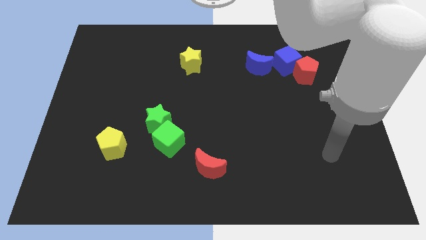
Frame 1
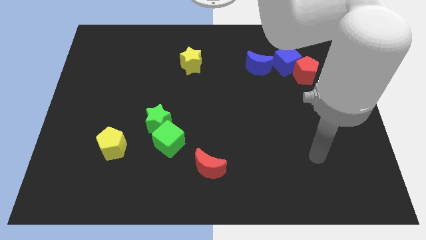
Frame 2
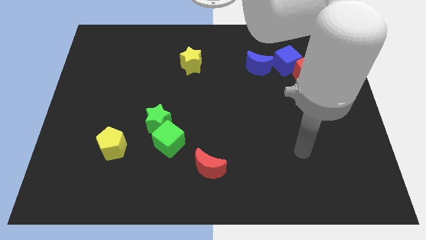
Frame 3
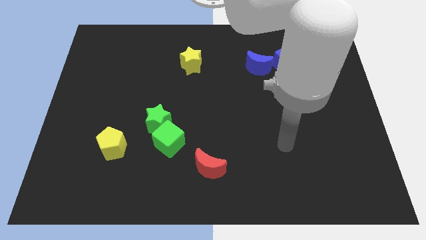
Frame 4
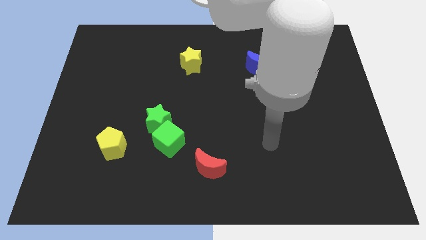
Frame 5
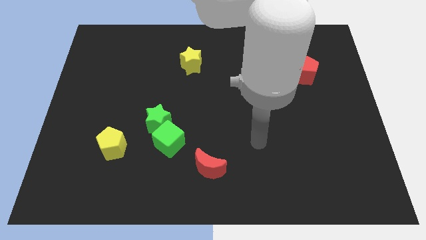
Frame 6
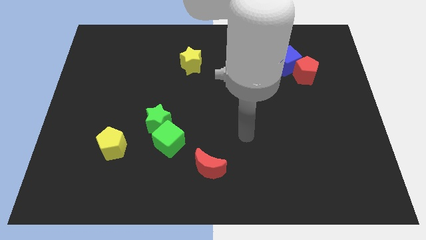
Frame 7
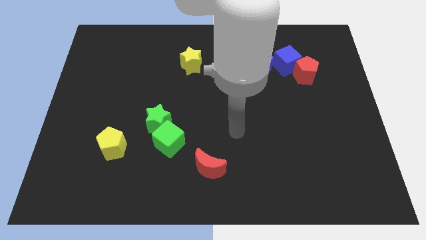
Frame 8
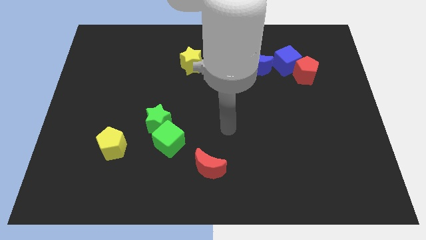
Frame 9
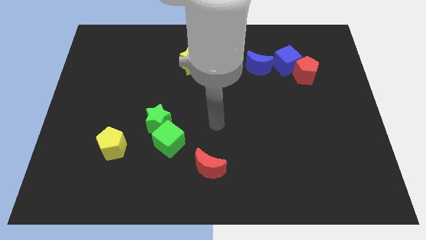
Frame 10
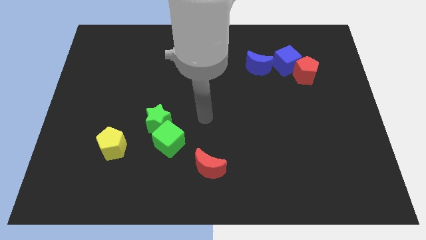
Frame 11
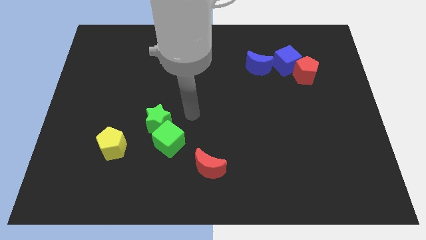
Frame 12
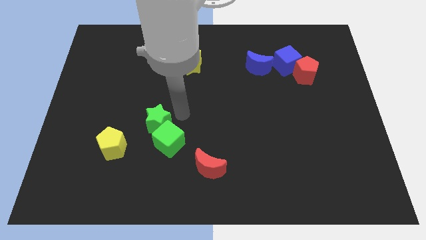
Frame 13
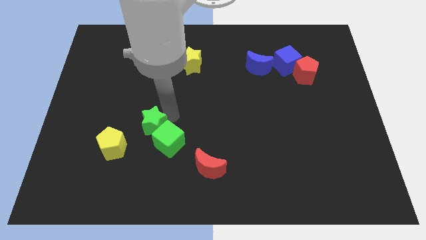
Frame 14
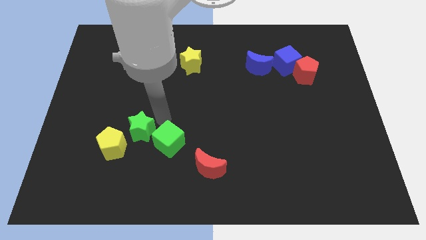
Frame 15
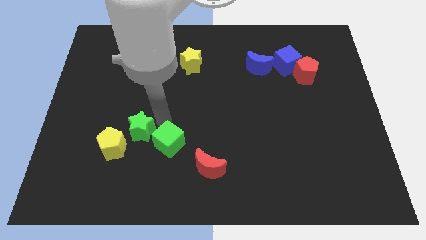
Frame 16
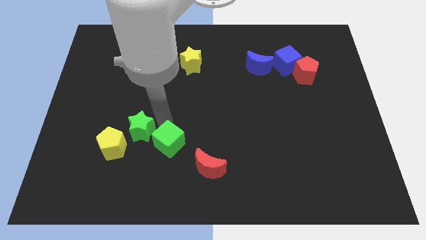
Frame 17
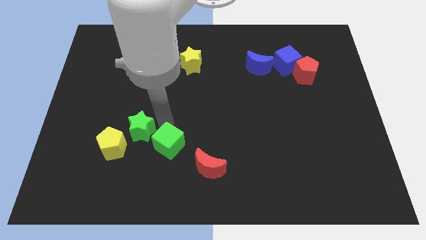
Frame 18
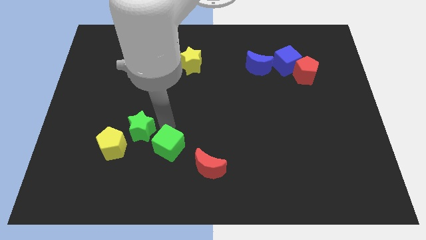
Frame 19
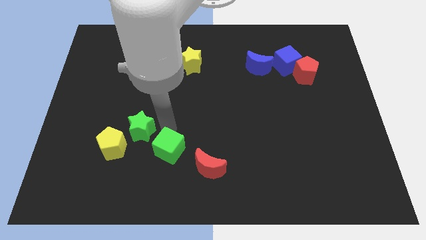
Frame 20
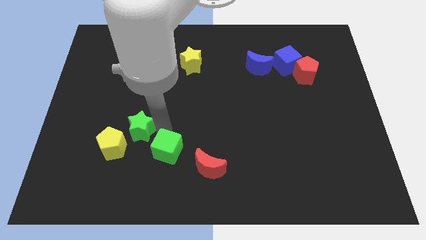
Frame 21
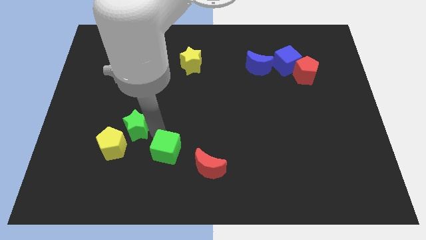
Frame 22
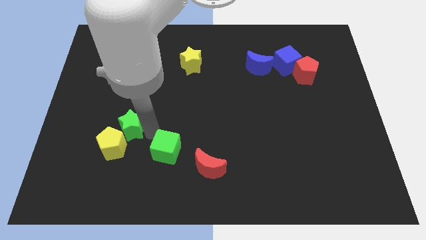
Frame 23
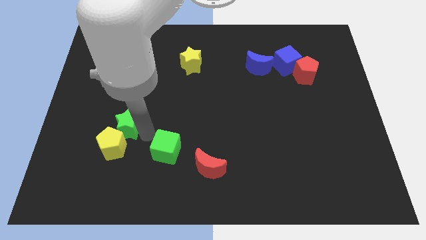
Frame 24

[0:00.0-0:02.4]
pull the green cube apart from the green star

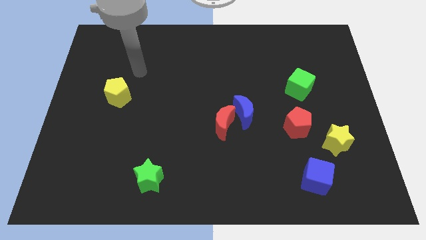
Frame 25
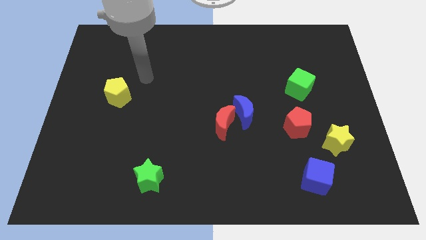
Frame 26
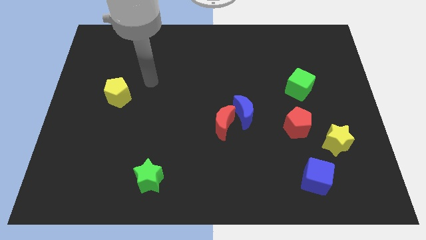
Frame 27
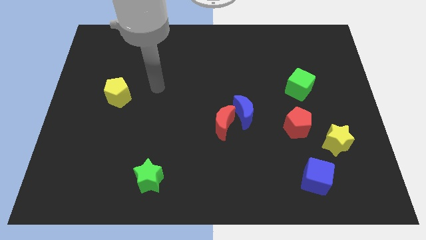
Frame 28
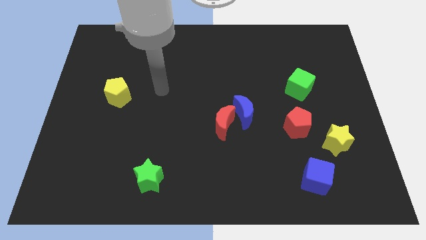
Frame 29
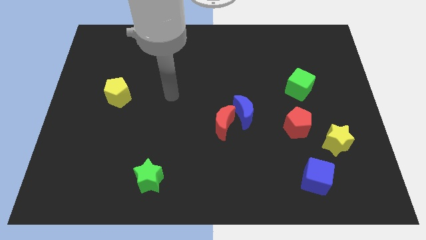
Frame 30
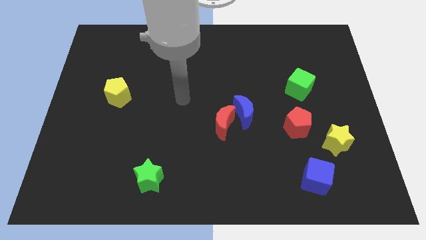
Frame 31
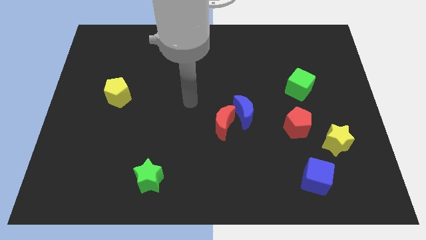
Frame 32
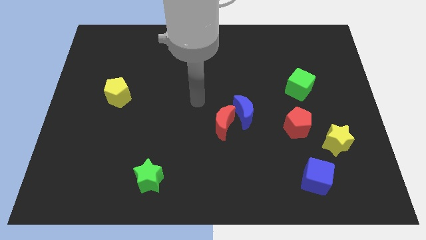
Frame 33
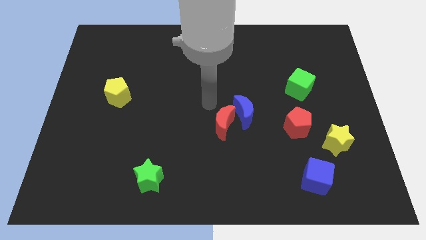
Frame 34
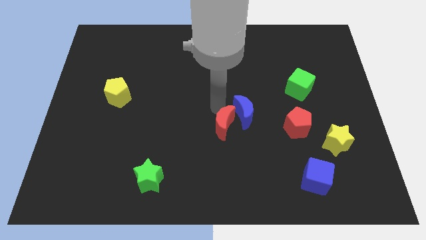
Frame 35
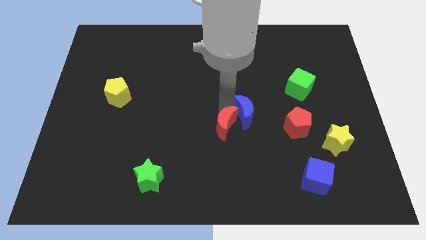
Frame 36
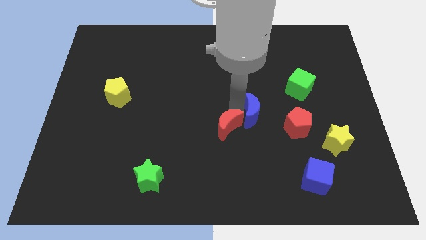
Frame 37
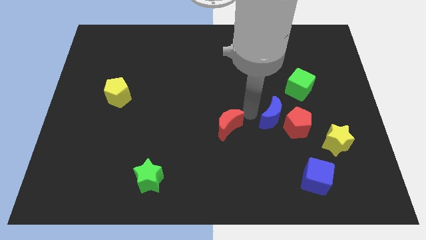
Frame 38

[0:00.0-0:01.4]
pull the red moon apart from the blue moon

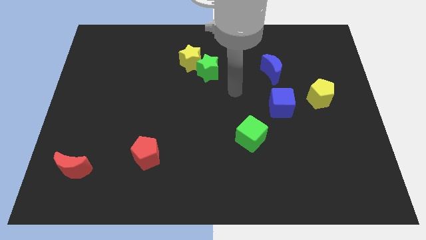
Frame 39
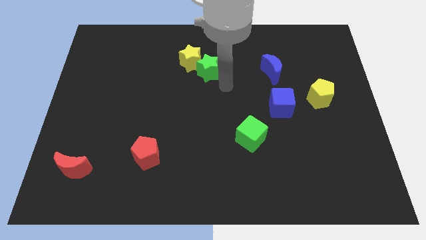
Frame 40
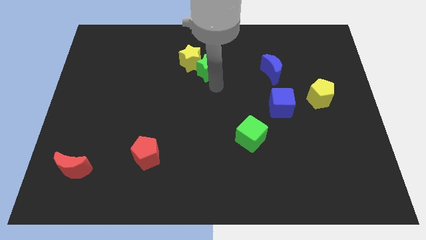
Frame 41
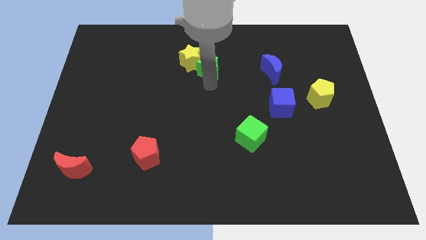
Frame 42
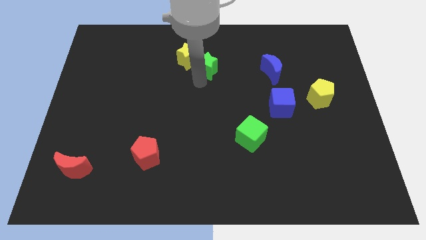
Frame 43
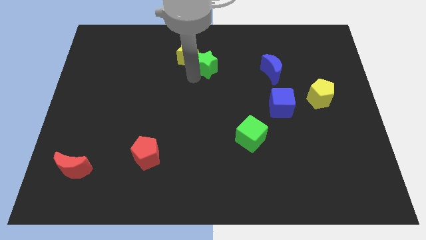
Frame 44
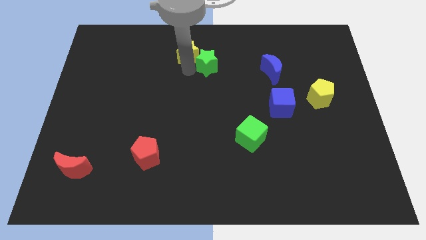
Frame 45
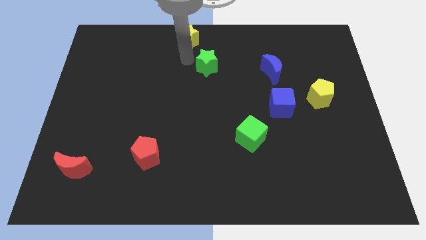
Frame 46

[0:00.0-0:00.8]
move the green star away from the yellow star

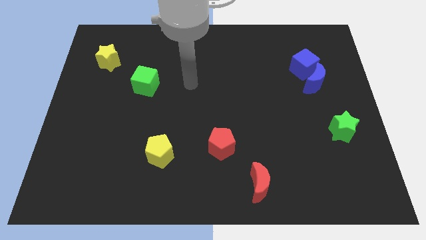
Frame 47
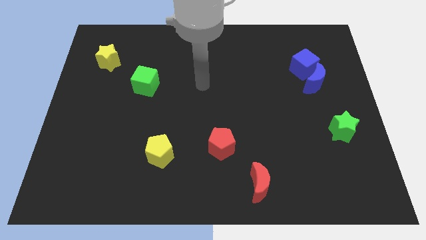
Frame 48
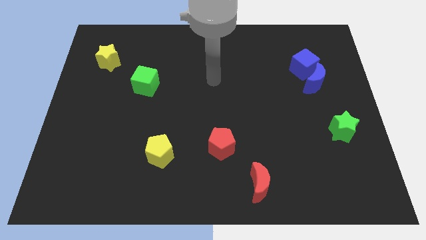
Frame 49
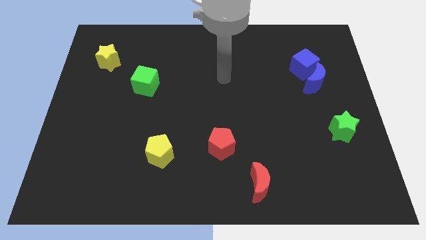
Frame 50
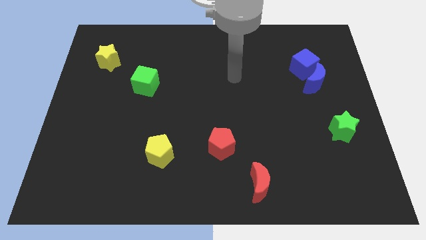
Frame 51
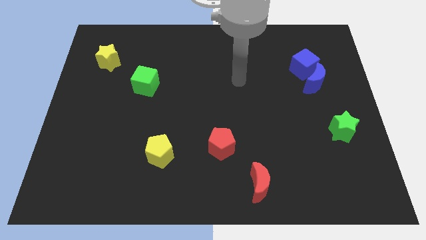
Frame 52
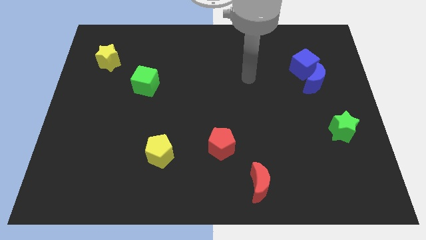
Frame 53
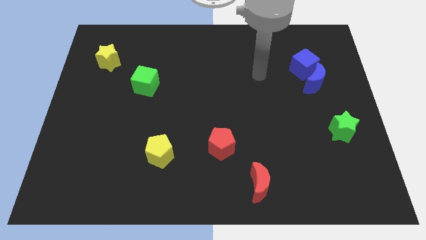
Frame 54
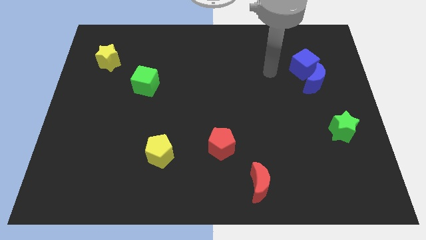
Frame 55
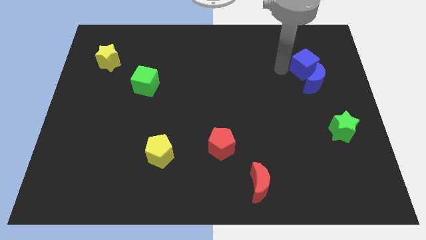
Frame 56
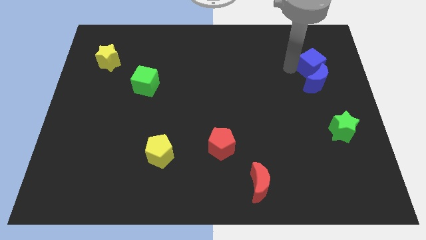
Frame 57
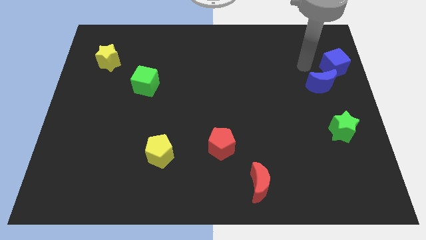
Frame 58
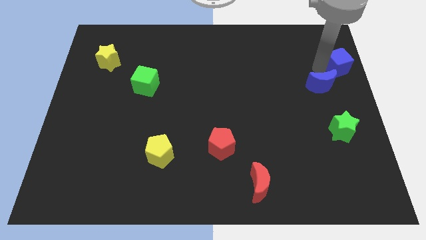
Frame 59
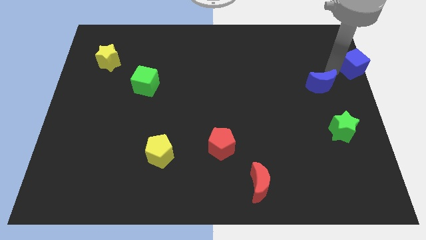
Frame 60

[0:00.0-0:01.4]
pull the blue moon apart from the blue cube

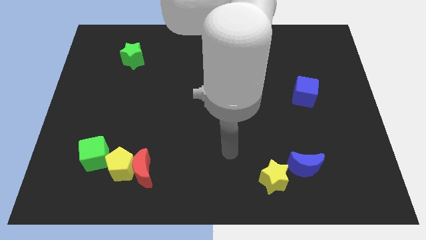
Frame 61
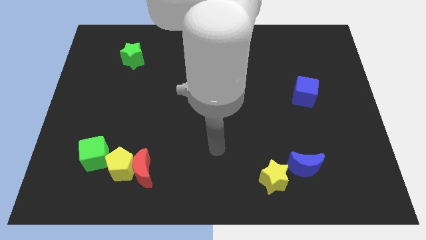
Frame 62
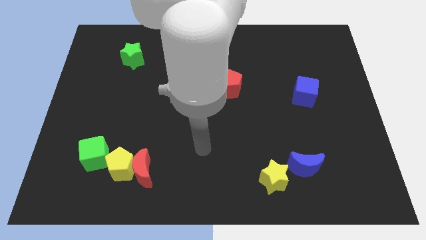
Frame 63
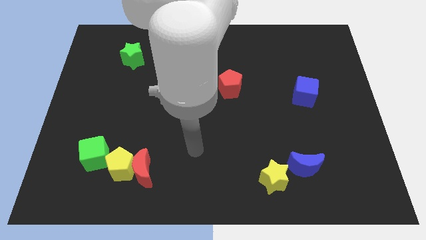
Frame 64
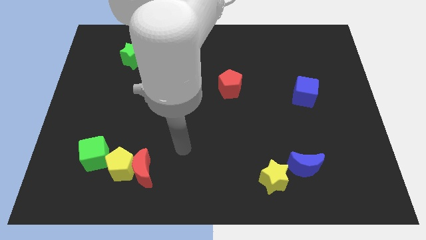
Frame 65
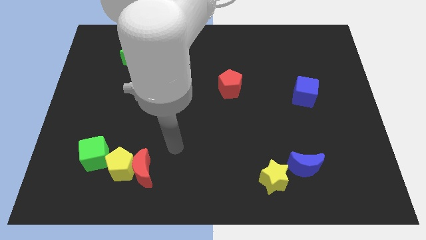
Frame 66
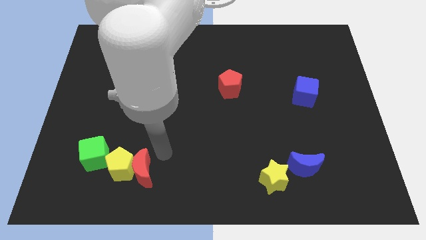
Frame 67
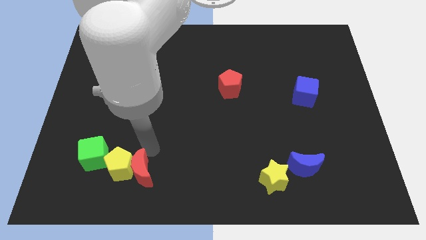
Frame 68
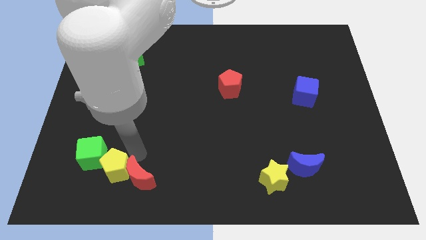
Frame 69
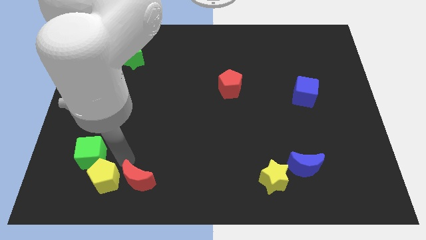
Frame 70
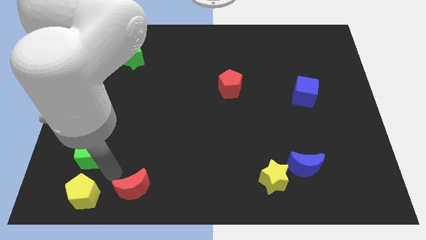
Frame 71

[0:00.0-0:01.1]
separate the red moon from the yellow pentagon

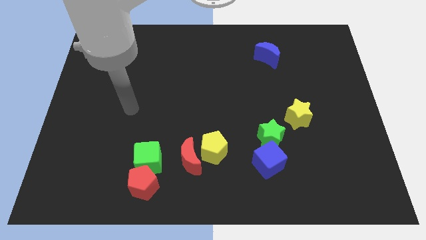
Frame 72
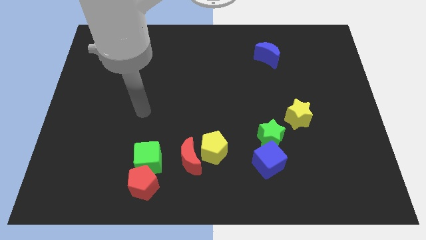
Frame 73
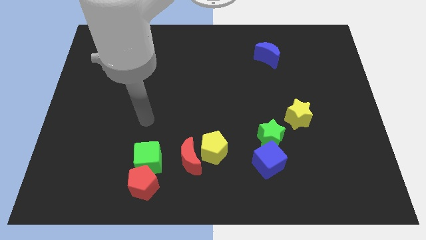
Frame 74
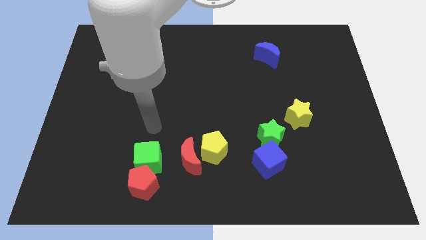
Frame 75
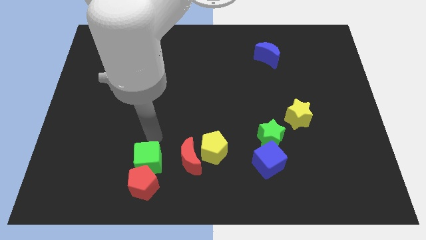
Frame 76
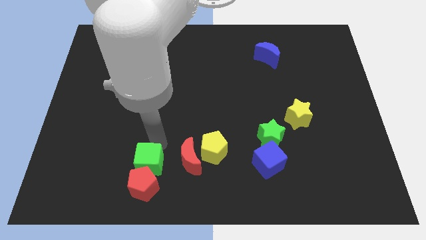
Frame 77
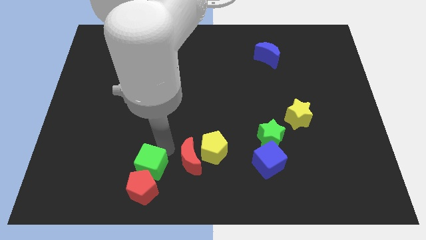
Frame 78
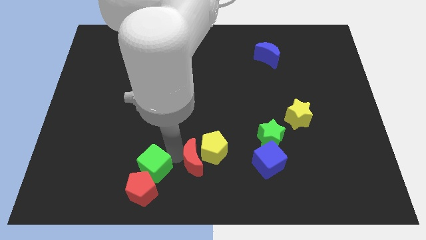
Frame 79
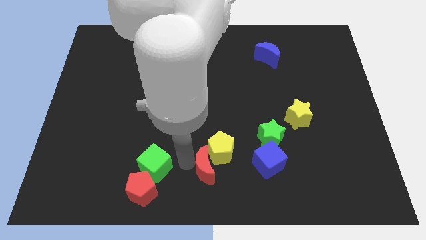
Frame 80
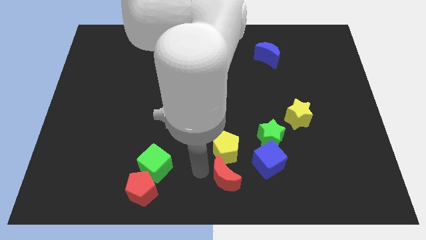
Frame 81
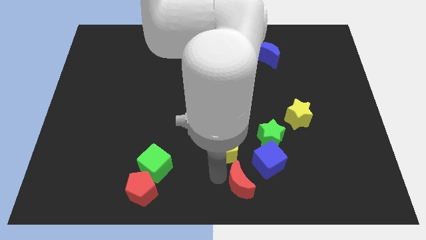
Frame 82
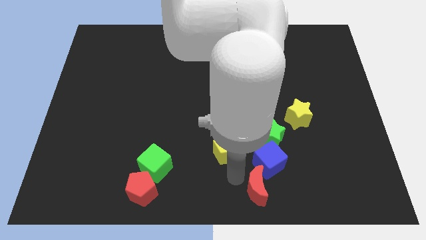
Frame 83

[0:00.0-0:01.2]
separate the yellow pentagon from the red moon

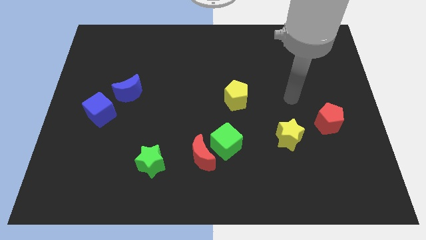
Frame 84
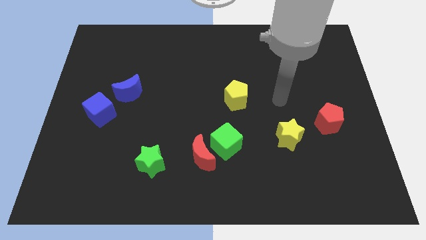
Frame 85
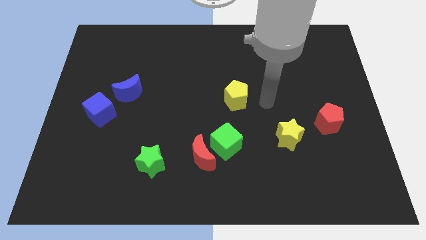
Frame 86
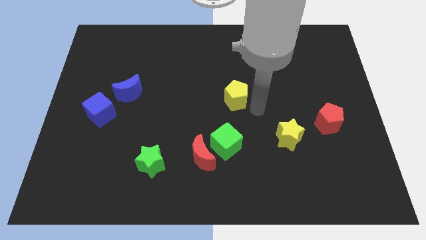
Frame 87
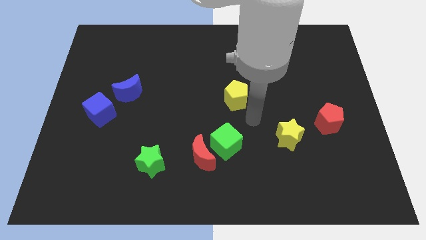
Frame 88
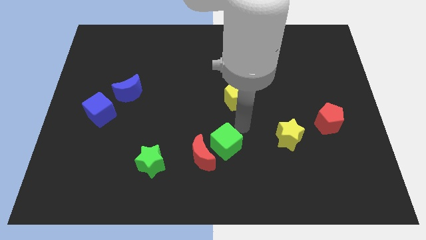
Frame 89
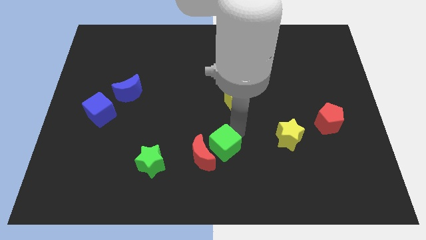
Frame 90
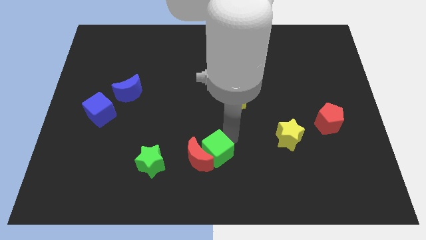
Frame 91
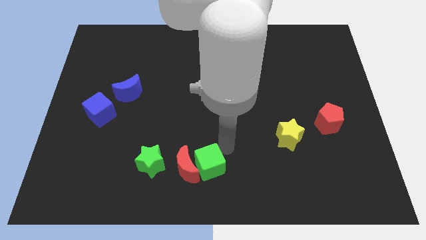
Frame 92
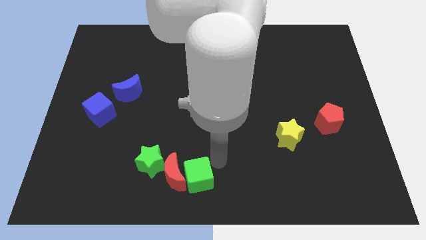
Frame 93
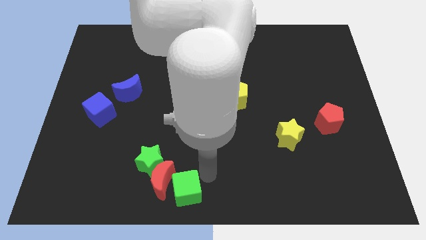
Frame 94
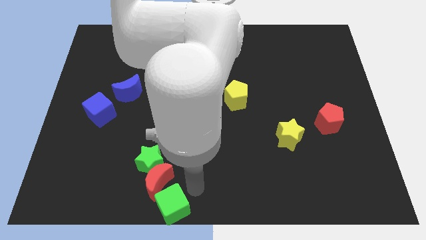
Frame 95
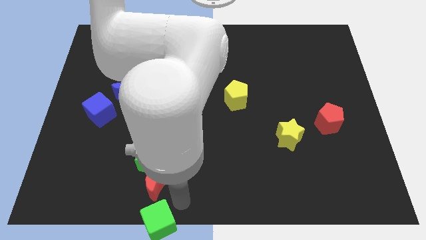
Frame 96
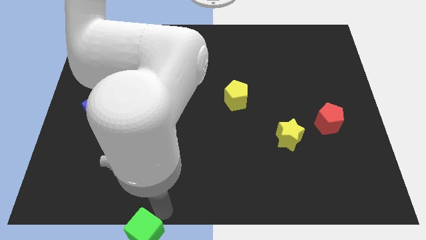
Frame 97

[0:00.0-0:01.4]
move the red moon away from the green cube
